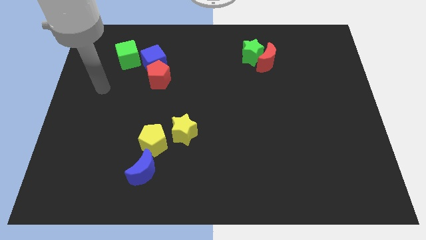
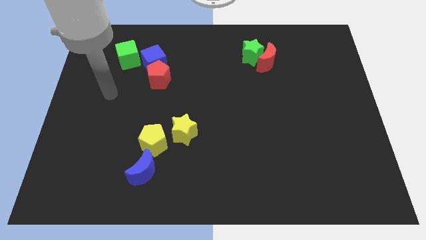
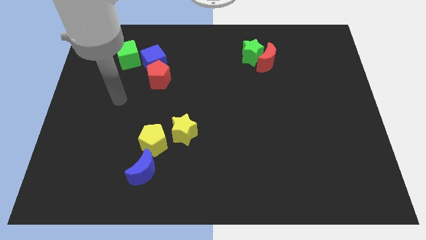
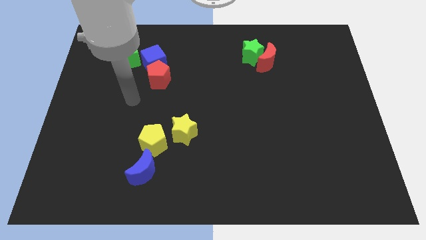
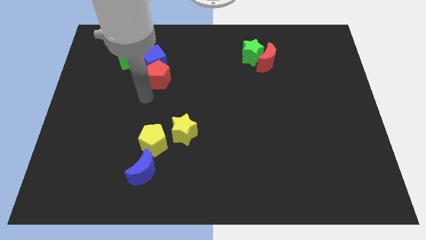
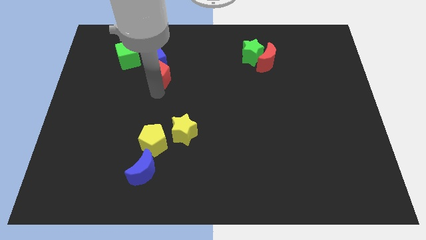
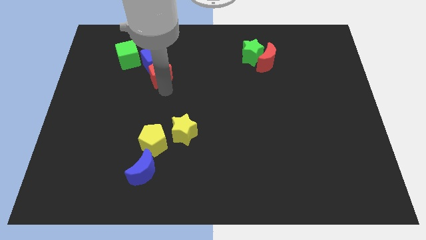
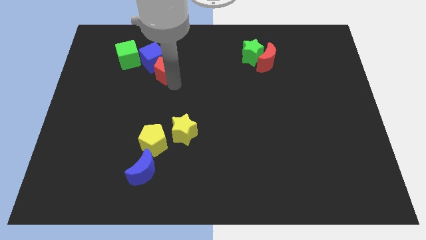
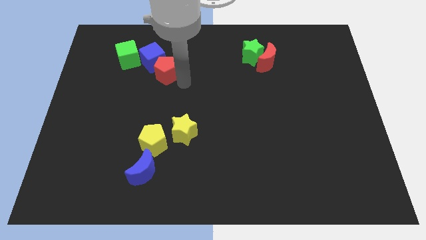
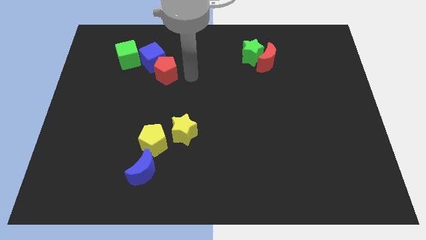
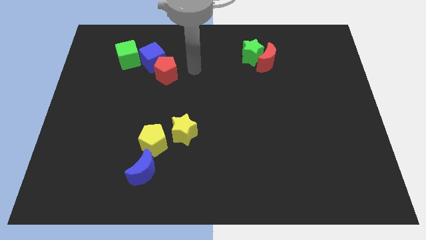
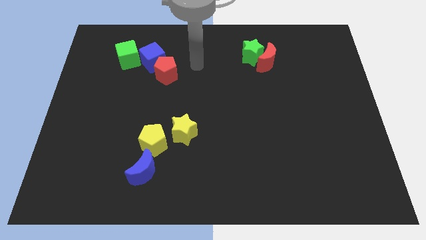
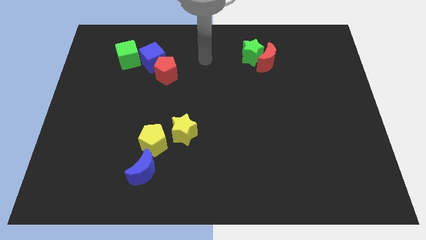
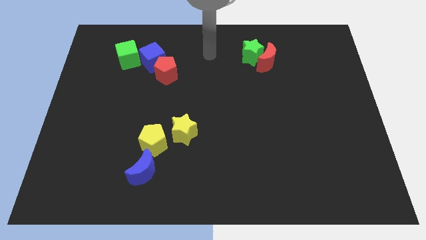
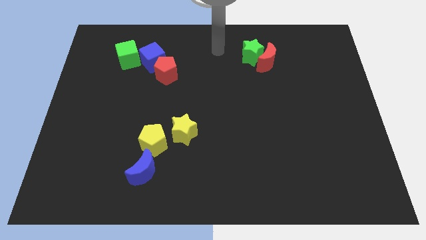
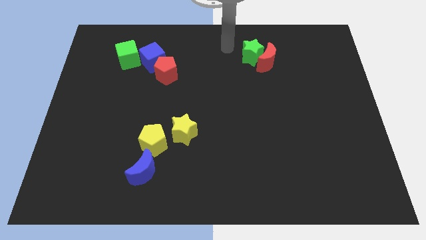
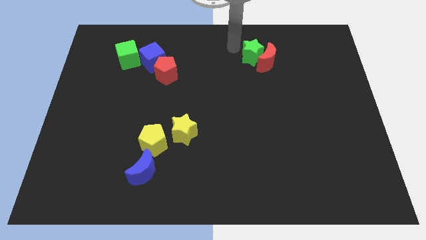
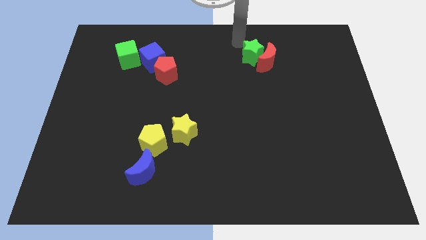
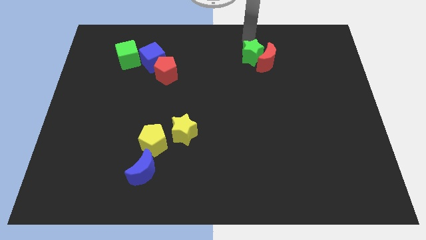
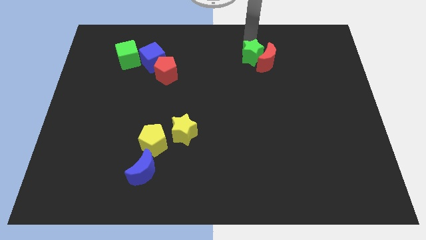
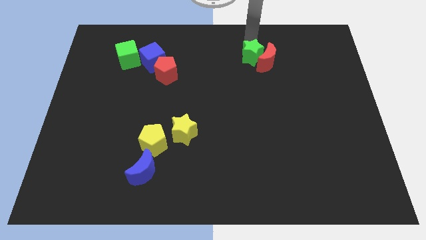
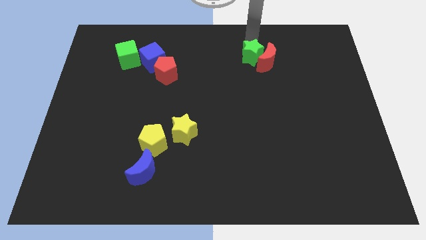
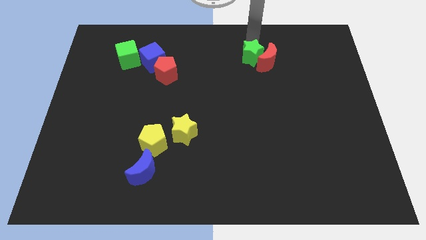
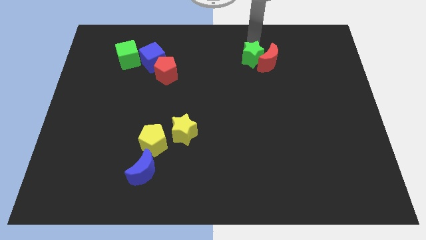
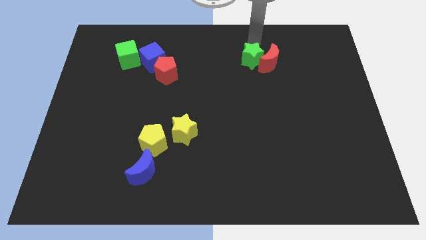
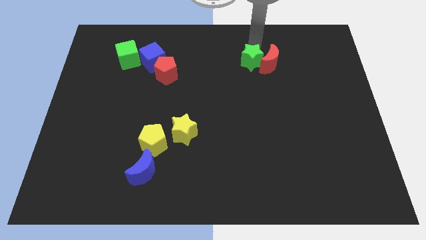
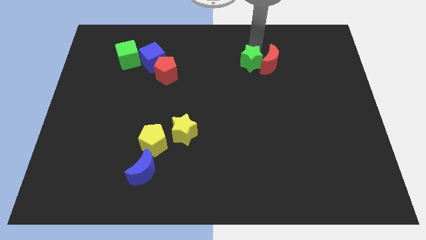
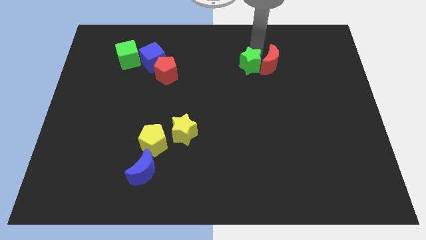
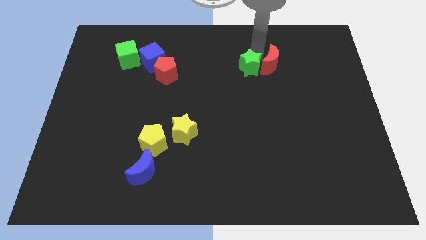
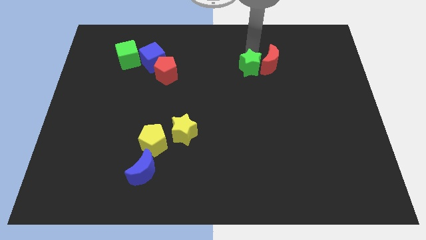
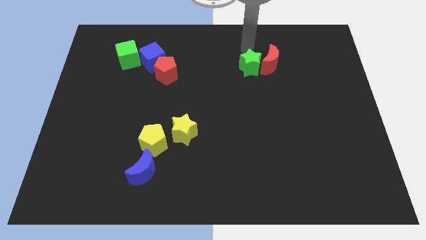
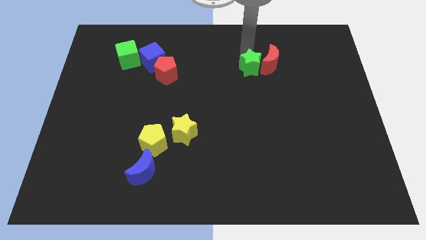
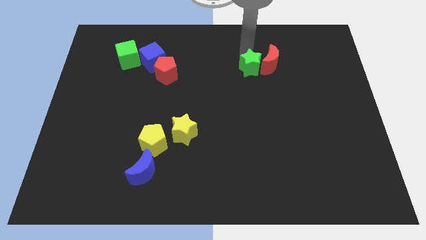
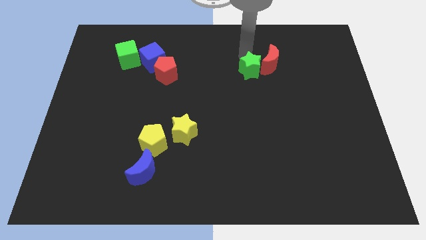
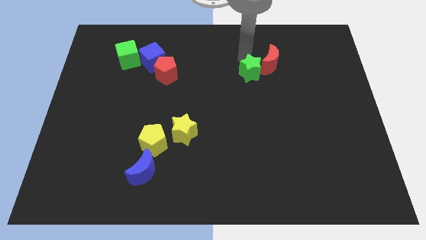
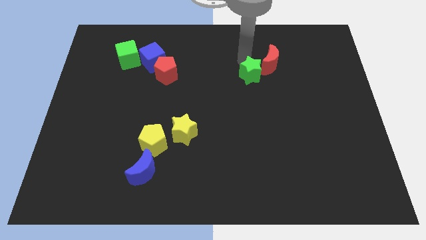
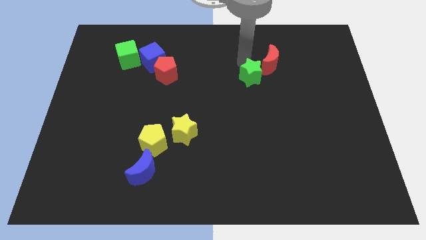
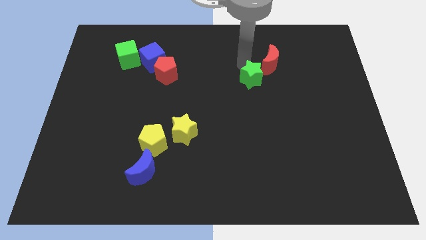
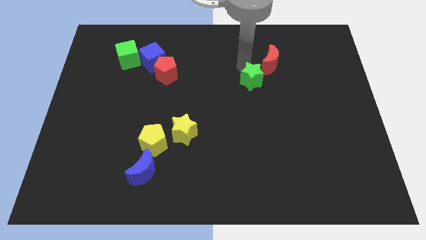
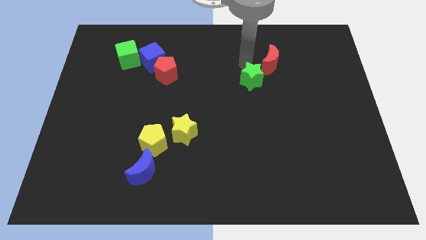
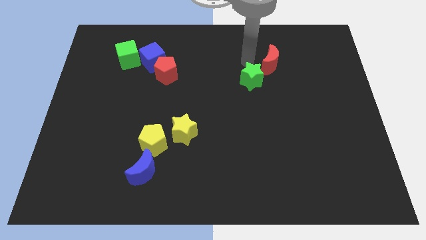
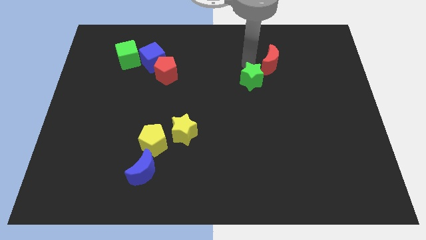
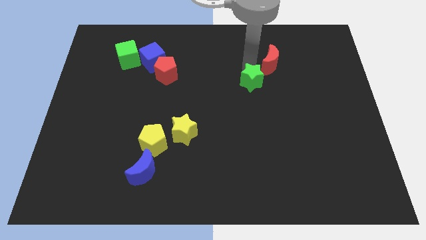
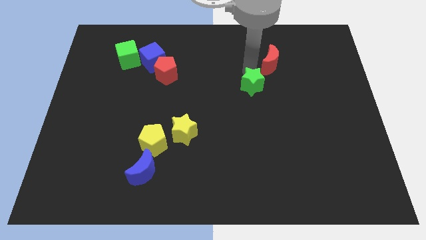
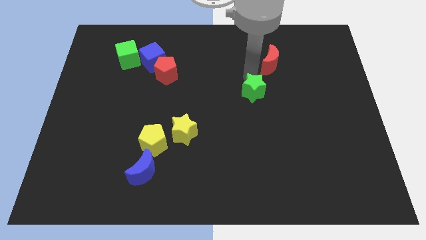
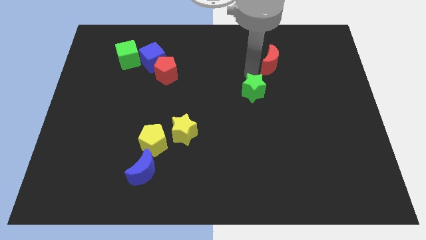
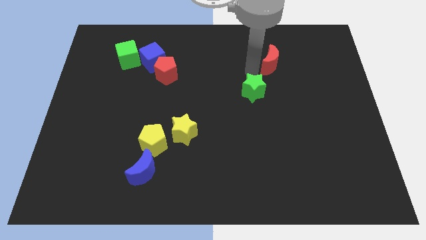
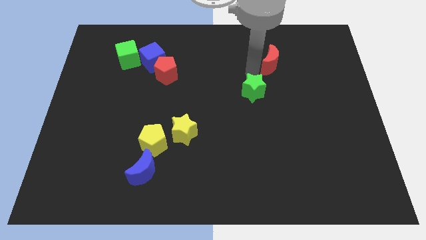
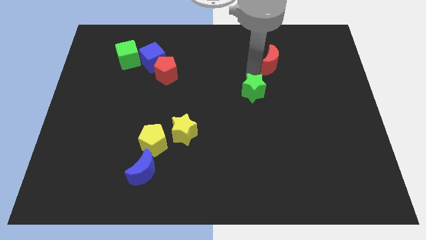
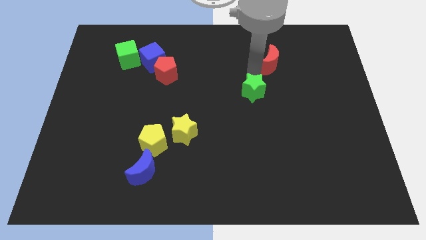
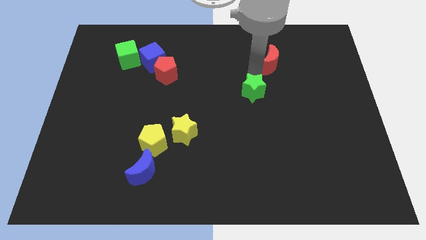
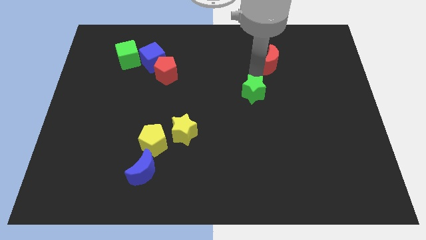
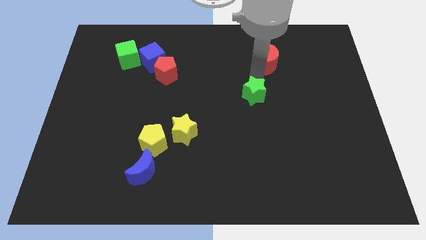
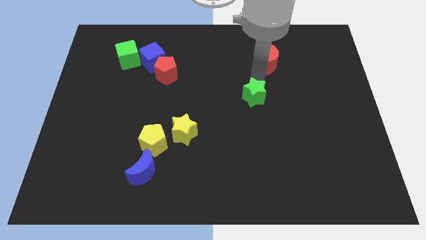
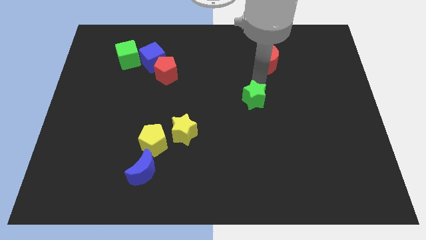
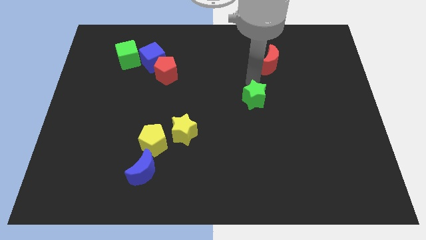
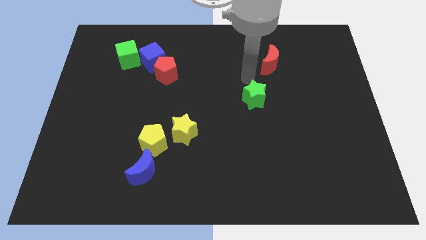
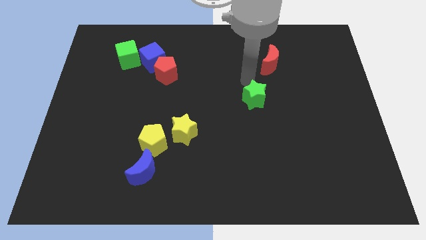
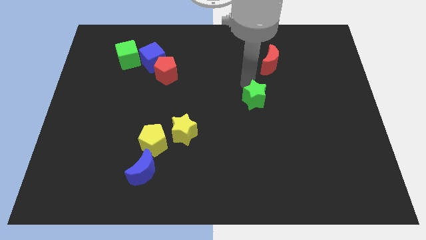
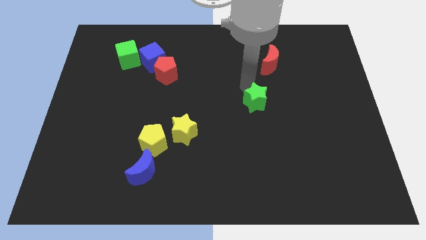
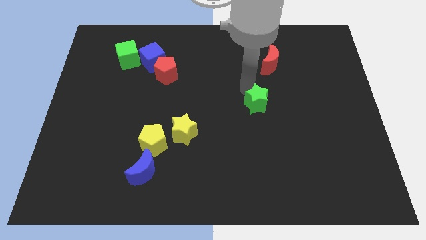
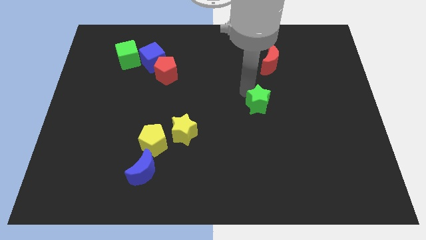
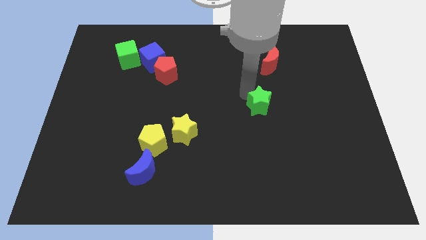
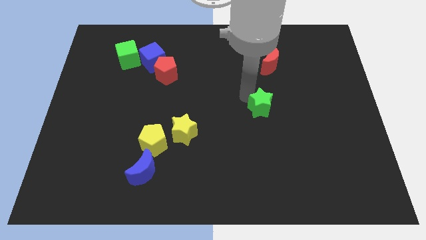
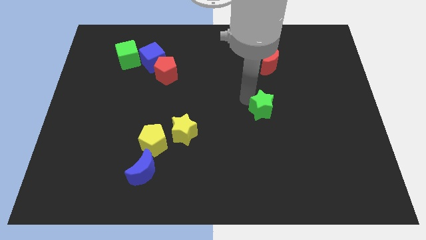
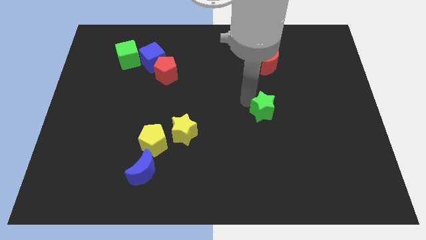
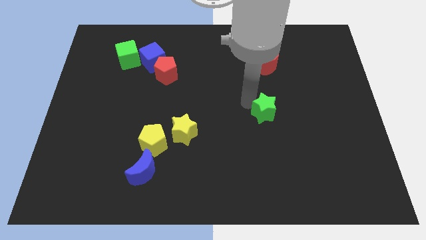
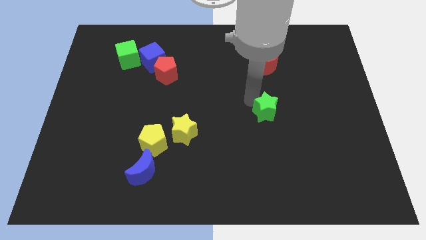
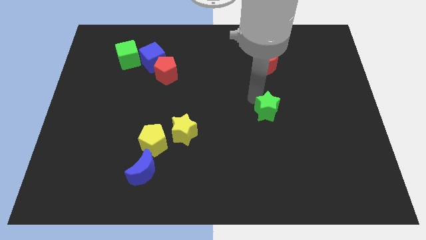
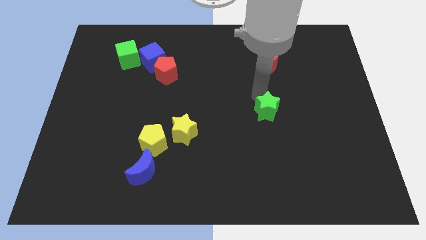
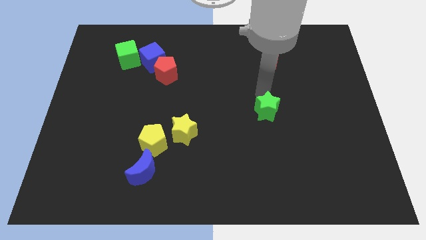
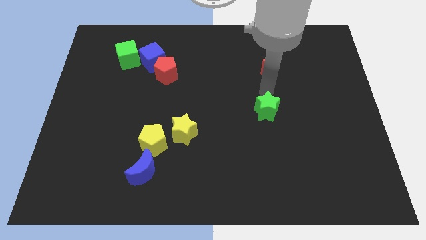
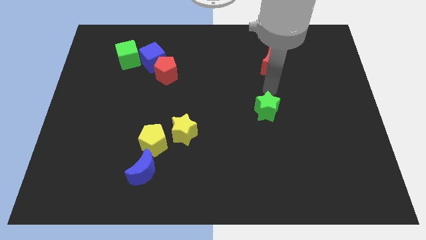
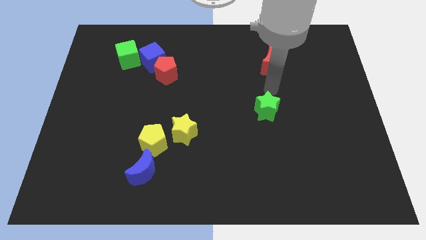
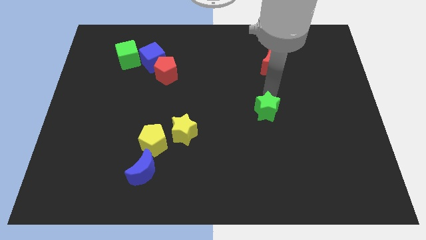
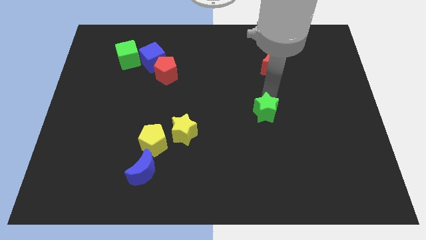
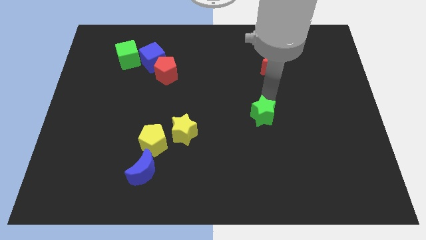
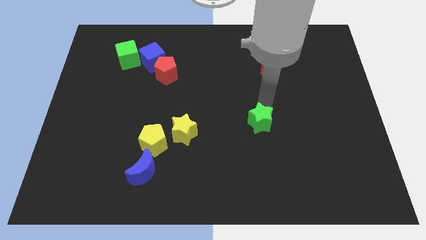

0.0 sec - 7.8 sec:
slide the green star downwards
